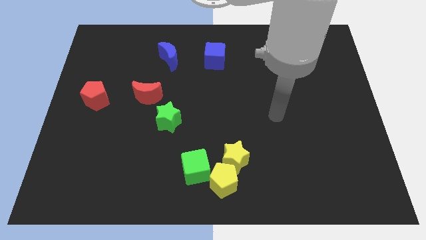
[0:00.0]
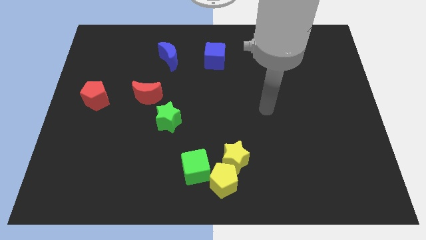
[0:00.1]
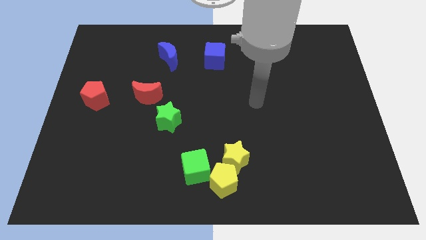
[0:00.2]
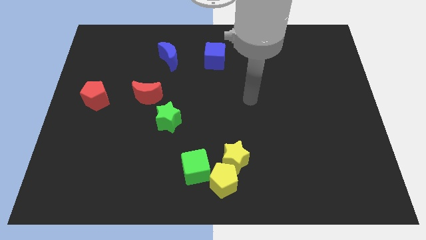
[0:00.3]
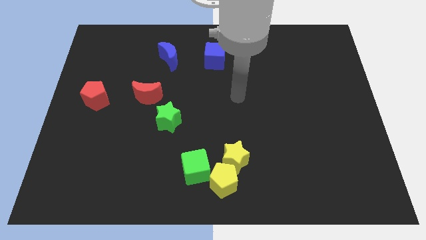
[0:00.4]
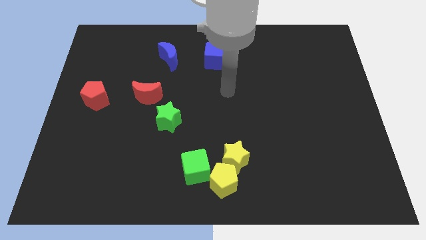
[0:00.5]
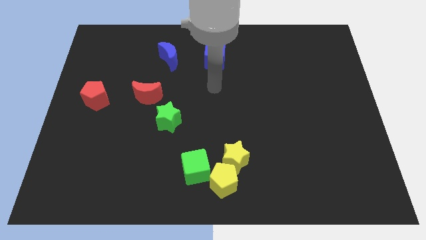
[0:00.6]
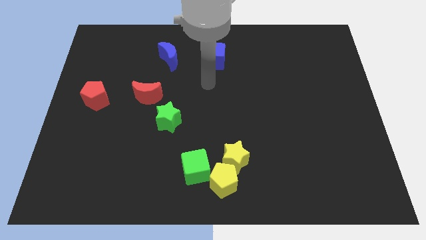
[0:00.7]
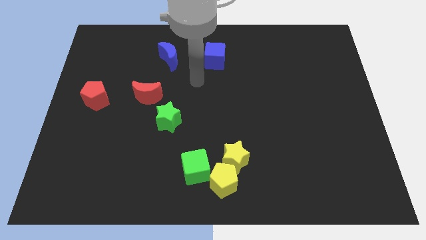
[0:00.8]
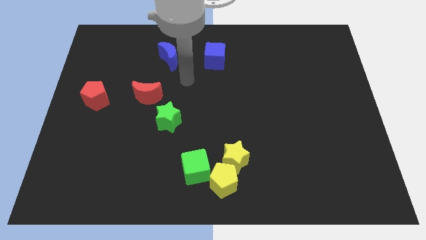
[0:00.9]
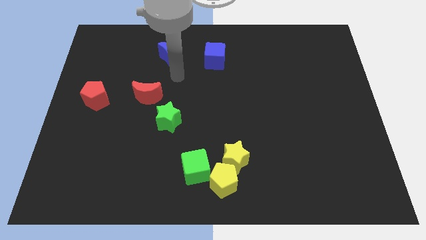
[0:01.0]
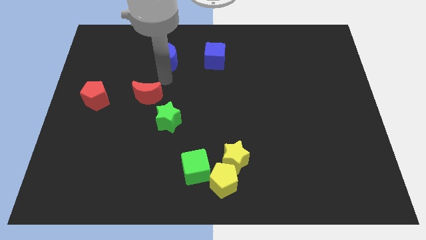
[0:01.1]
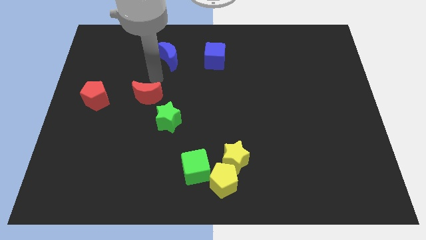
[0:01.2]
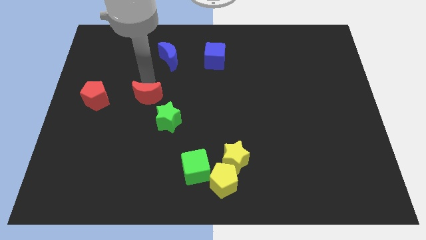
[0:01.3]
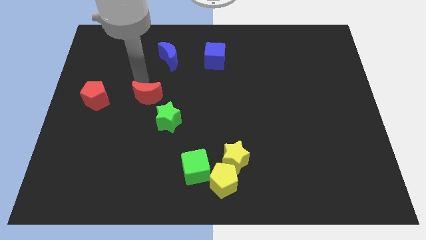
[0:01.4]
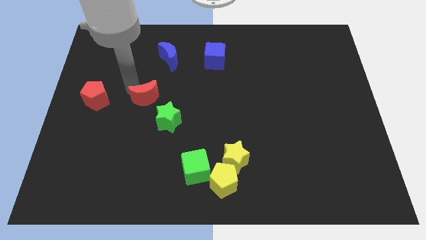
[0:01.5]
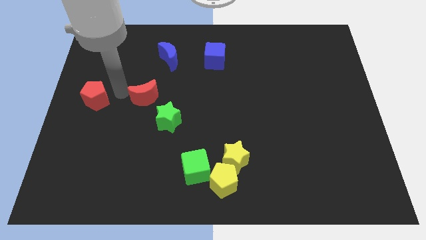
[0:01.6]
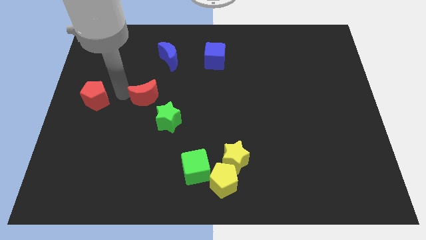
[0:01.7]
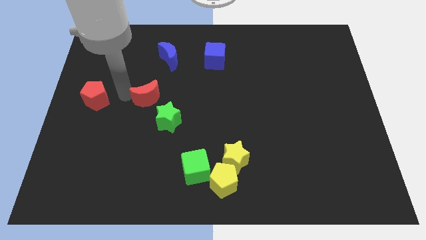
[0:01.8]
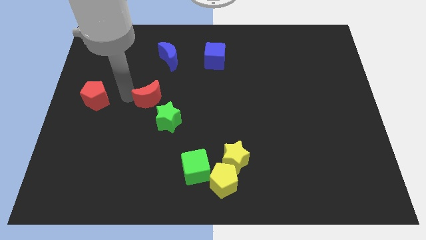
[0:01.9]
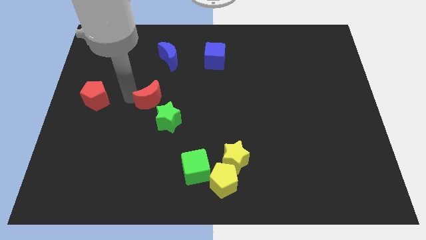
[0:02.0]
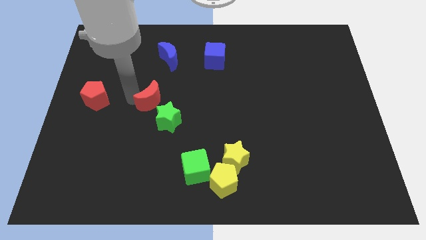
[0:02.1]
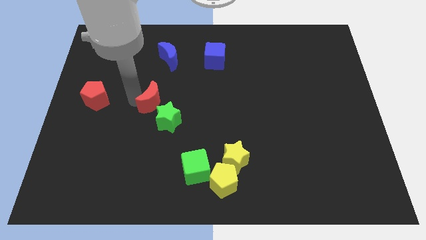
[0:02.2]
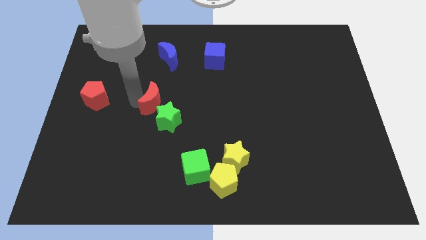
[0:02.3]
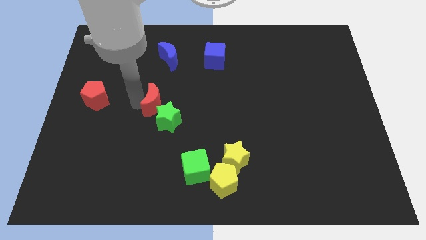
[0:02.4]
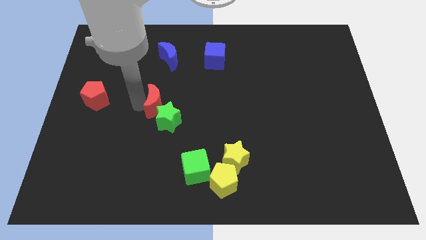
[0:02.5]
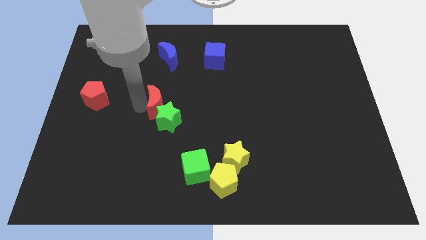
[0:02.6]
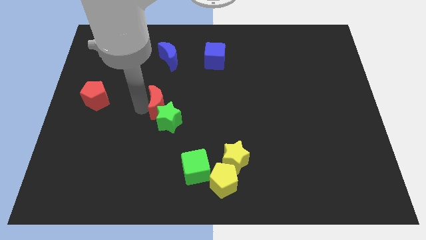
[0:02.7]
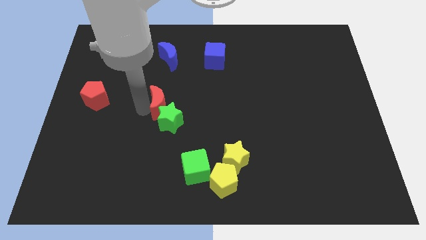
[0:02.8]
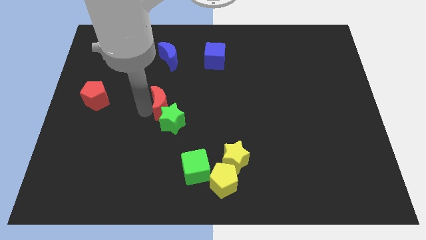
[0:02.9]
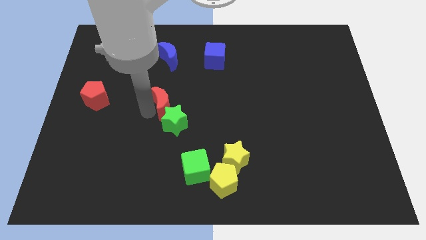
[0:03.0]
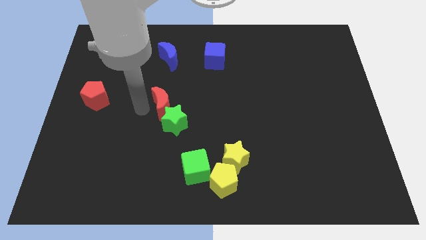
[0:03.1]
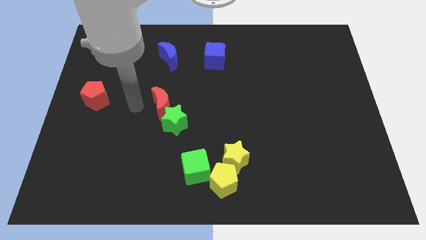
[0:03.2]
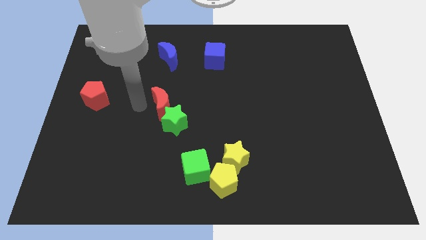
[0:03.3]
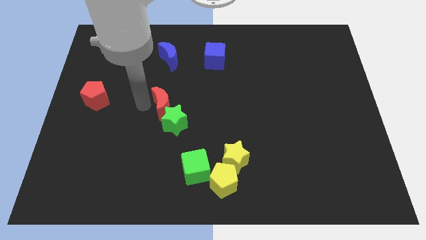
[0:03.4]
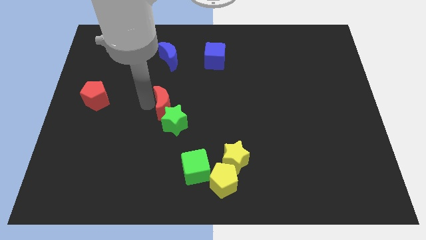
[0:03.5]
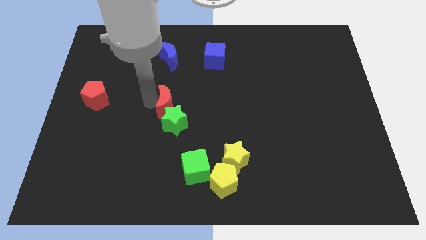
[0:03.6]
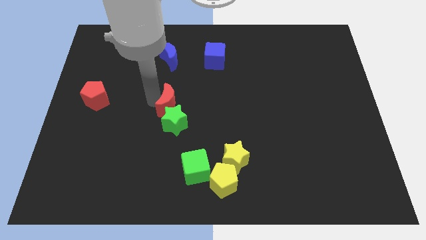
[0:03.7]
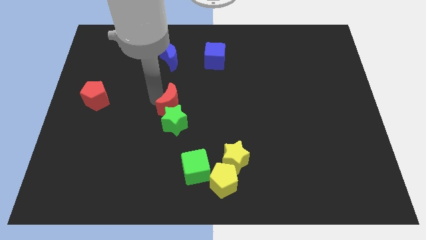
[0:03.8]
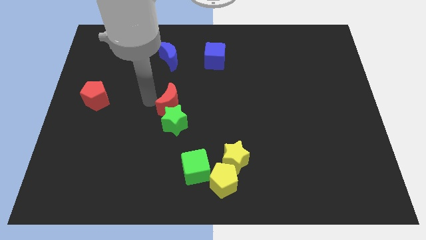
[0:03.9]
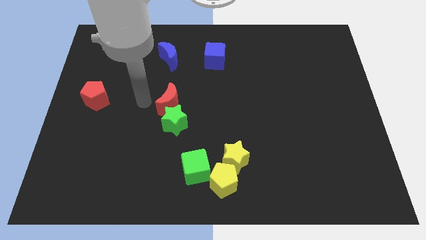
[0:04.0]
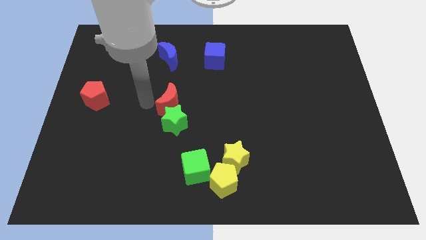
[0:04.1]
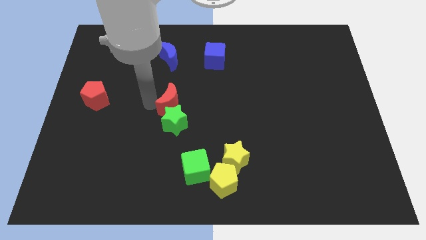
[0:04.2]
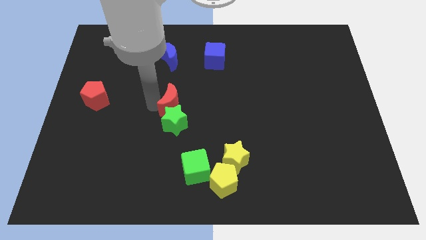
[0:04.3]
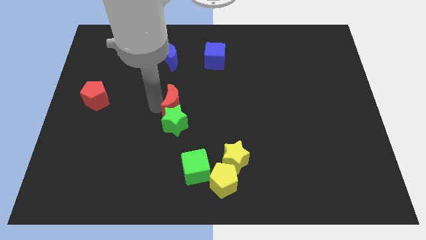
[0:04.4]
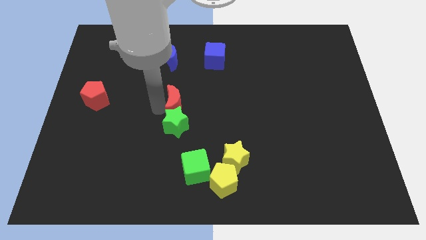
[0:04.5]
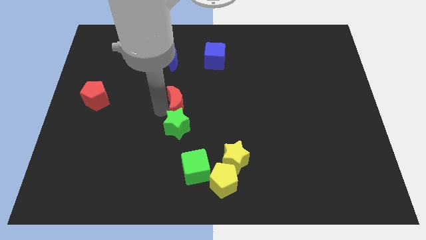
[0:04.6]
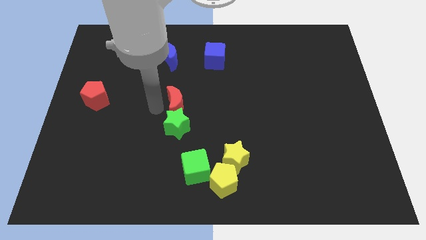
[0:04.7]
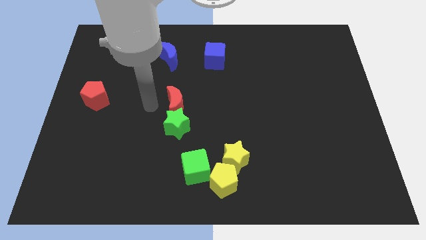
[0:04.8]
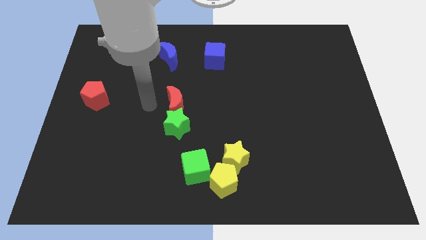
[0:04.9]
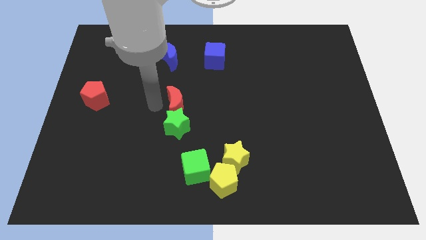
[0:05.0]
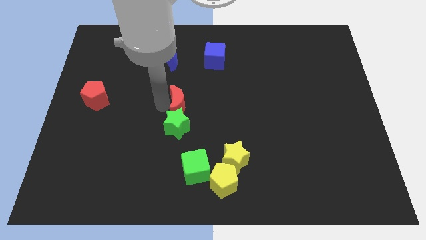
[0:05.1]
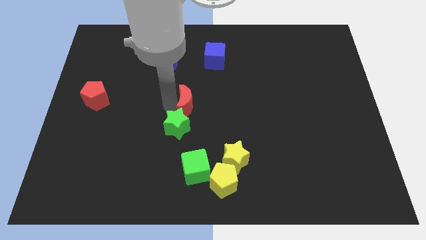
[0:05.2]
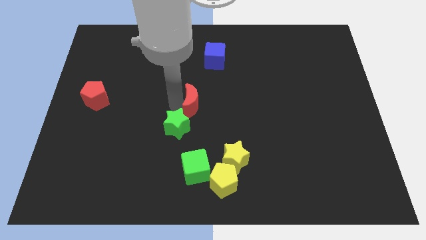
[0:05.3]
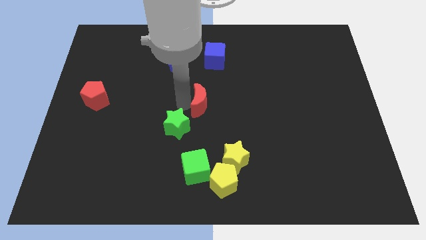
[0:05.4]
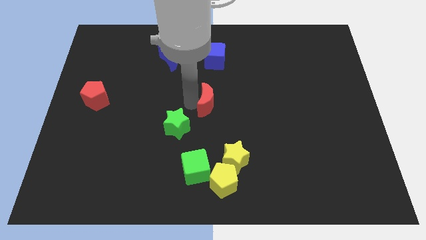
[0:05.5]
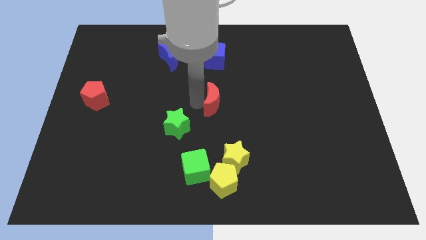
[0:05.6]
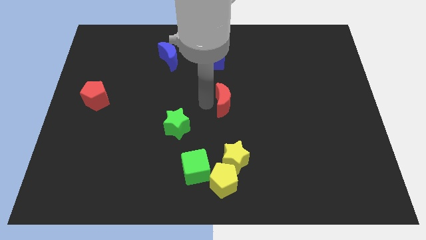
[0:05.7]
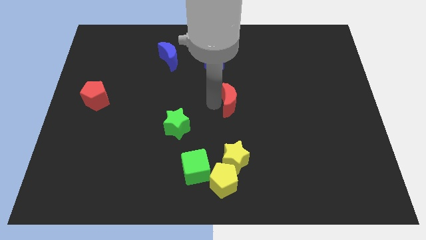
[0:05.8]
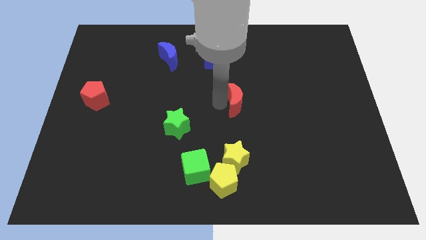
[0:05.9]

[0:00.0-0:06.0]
slide the red moon right

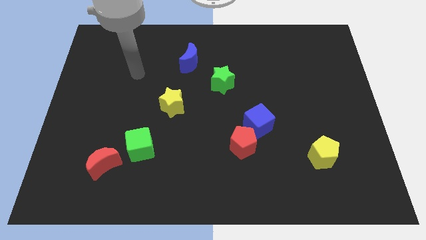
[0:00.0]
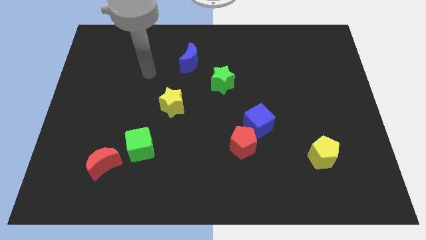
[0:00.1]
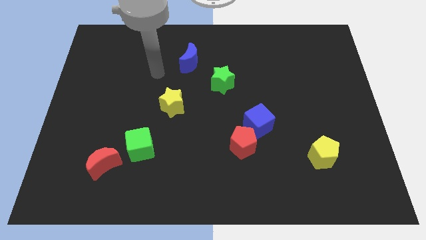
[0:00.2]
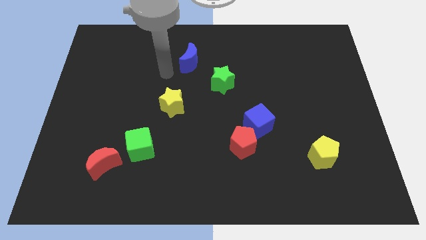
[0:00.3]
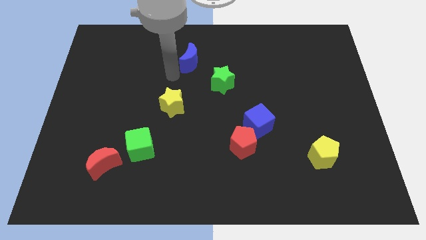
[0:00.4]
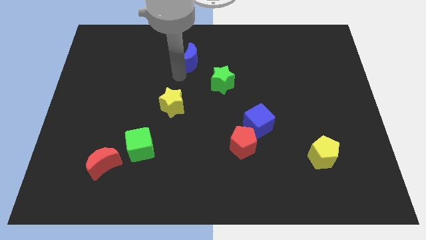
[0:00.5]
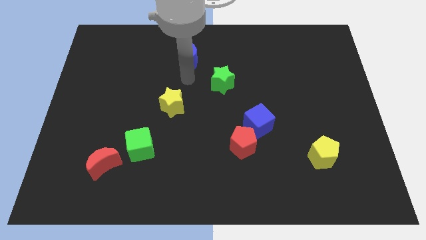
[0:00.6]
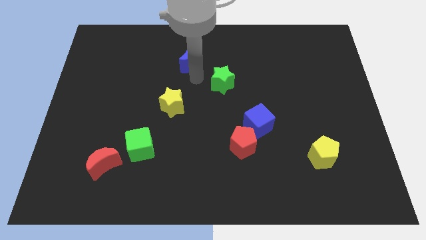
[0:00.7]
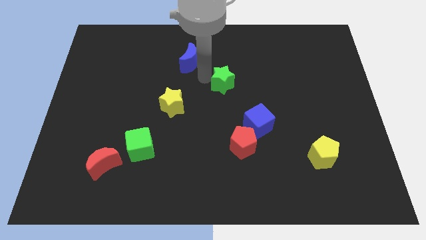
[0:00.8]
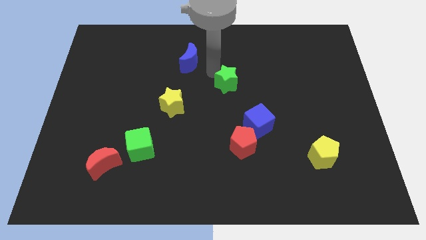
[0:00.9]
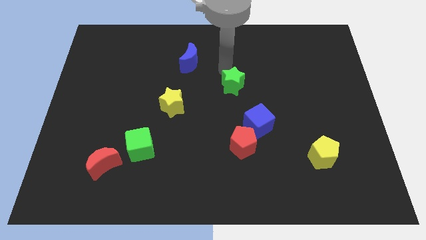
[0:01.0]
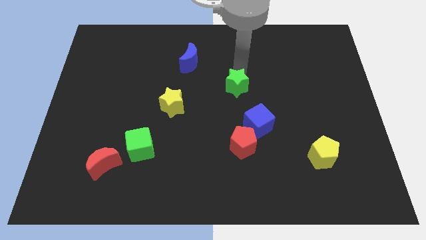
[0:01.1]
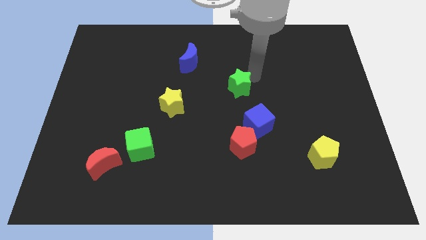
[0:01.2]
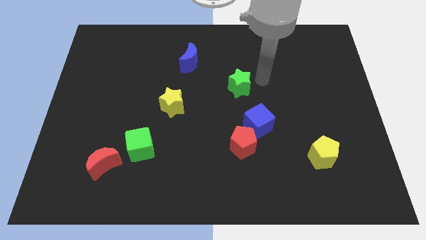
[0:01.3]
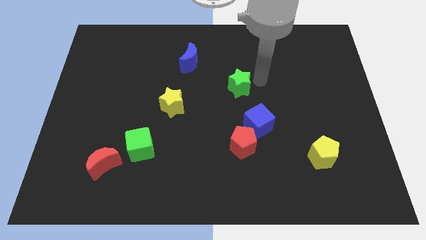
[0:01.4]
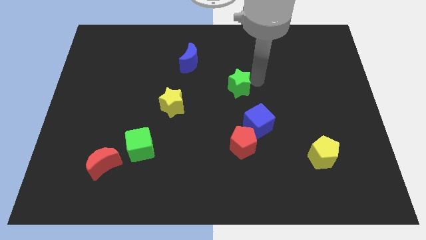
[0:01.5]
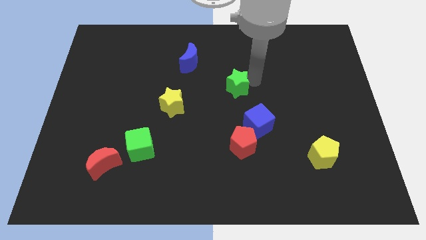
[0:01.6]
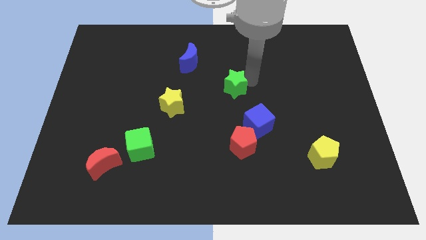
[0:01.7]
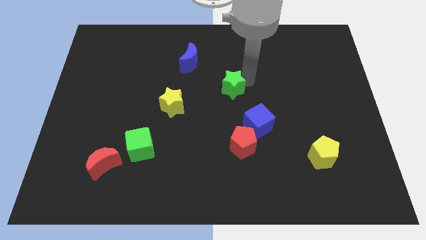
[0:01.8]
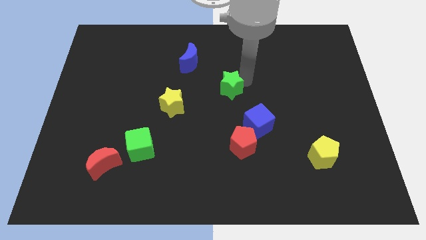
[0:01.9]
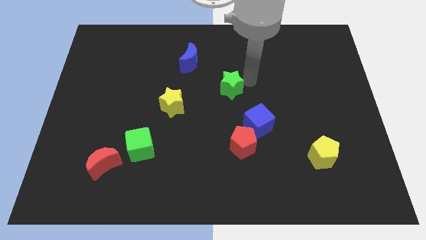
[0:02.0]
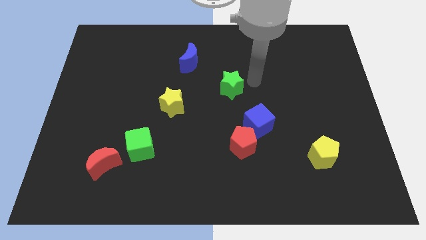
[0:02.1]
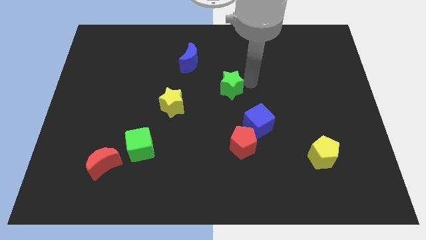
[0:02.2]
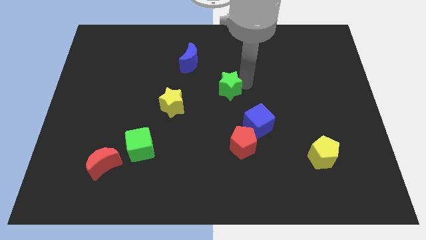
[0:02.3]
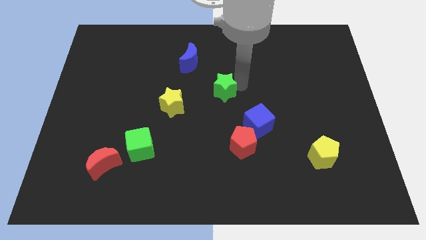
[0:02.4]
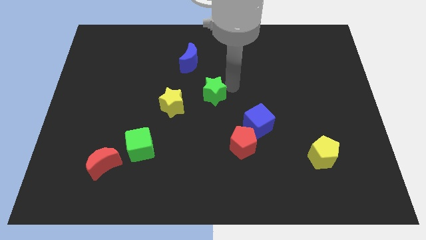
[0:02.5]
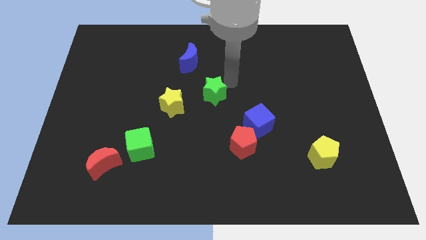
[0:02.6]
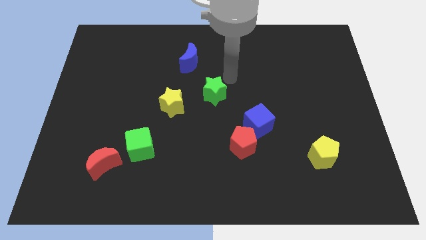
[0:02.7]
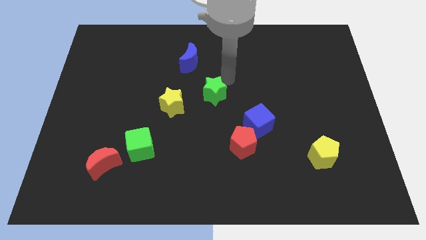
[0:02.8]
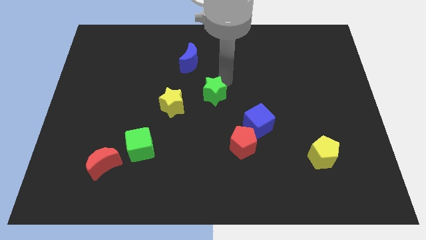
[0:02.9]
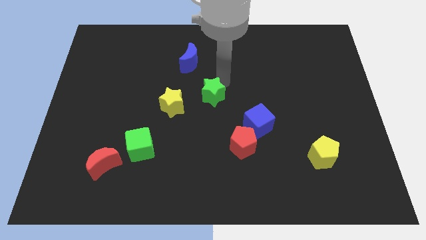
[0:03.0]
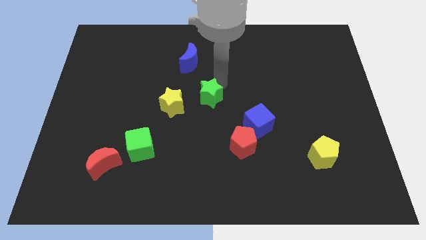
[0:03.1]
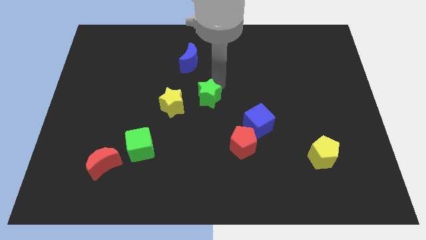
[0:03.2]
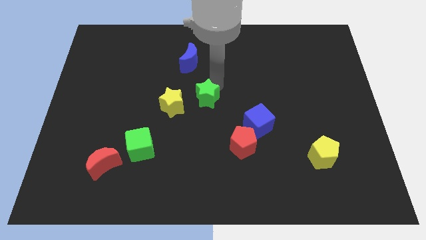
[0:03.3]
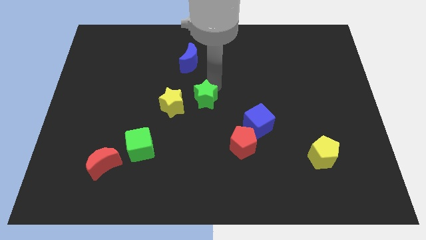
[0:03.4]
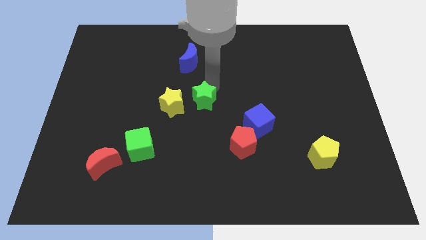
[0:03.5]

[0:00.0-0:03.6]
move the green star down and then left a little
